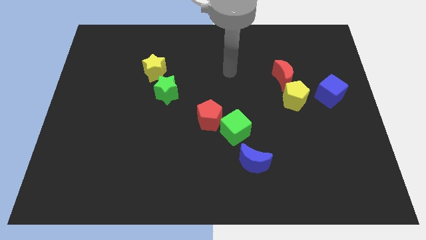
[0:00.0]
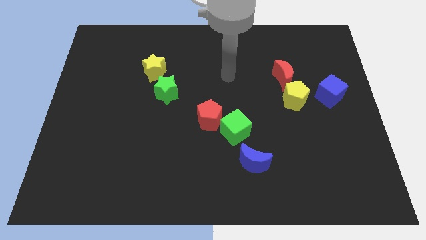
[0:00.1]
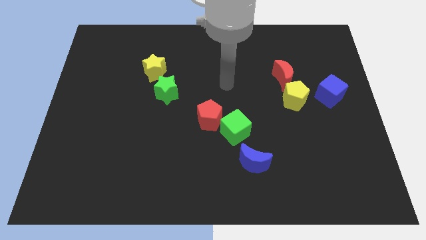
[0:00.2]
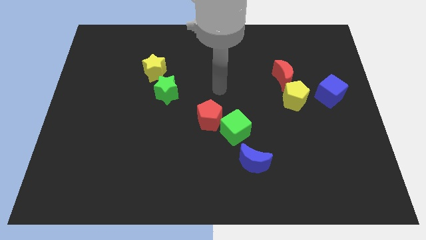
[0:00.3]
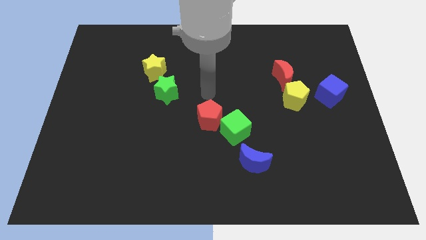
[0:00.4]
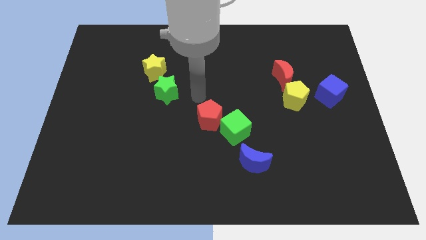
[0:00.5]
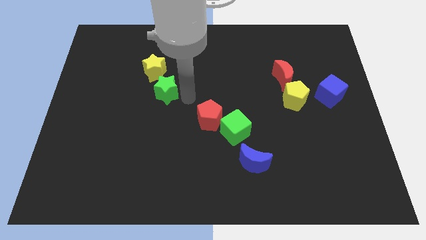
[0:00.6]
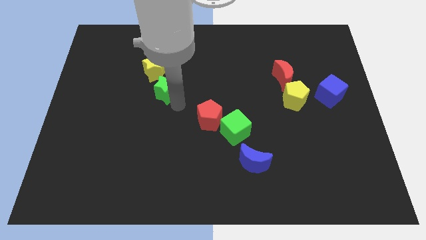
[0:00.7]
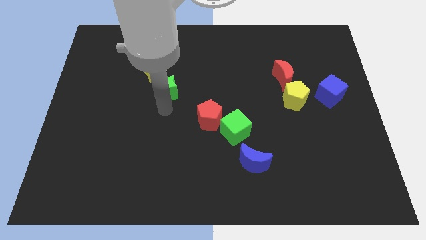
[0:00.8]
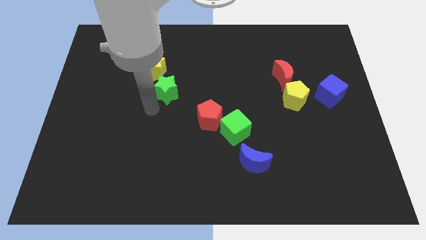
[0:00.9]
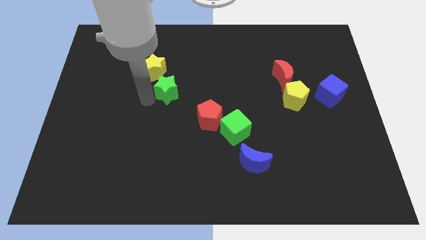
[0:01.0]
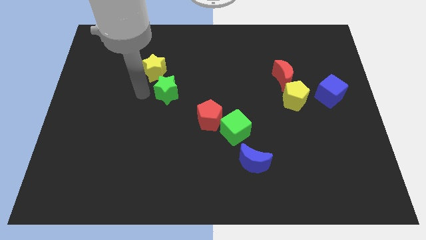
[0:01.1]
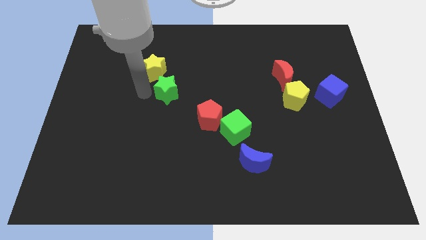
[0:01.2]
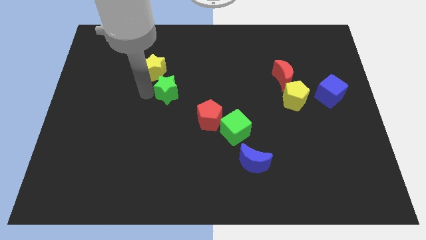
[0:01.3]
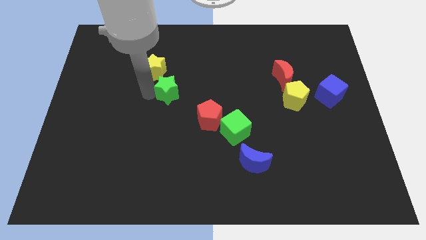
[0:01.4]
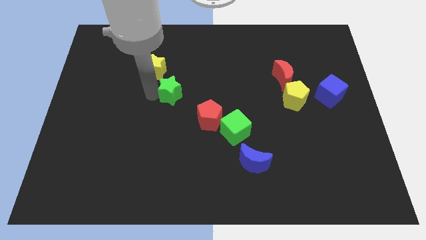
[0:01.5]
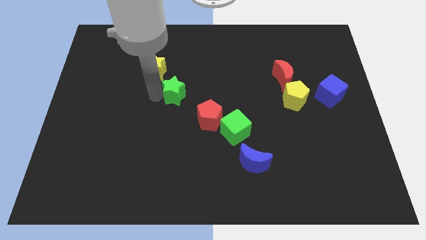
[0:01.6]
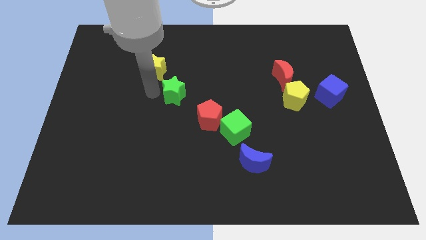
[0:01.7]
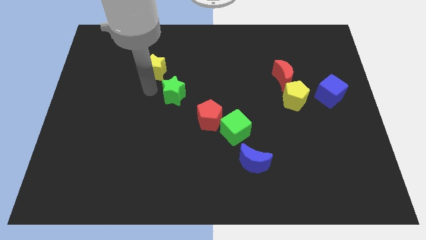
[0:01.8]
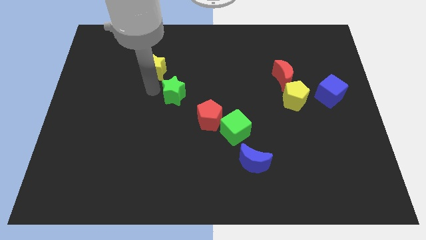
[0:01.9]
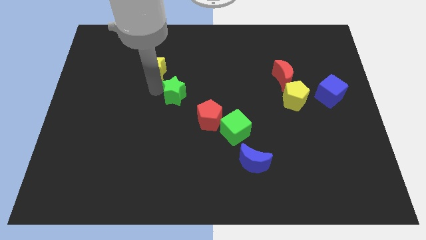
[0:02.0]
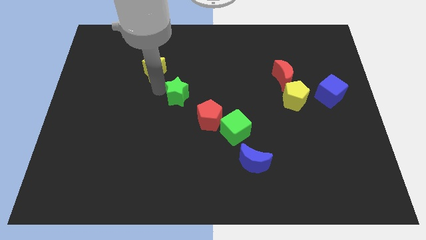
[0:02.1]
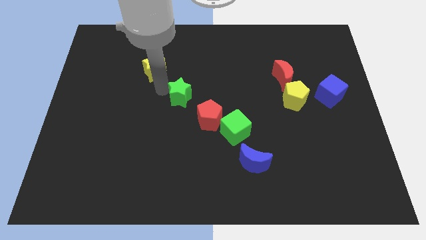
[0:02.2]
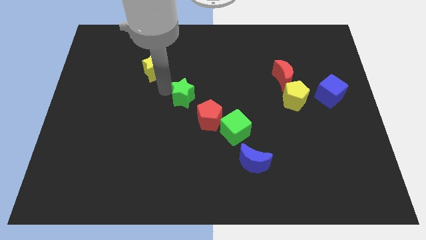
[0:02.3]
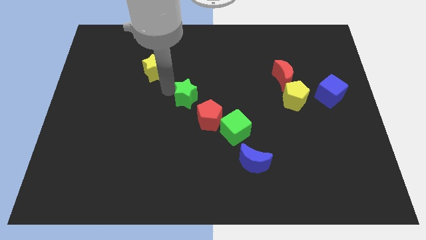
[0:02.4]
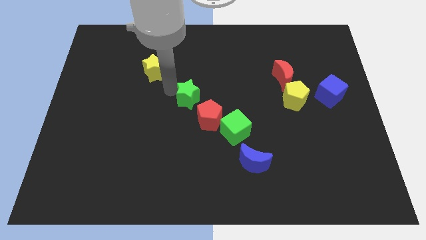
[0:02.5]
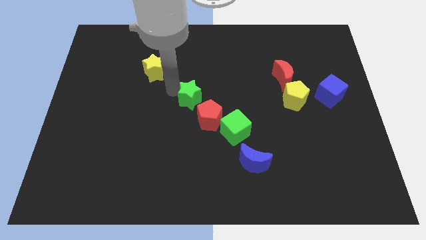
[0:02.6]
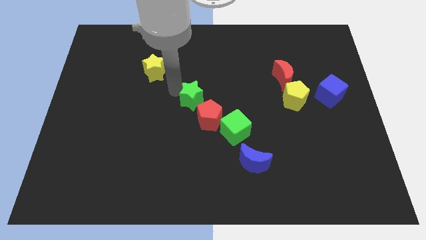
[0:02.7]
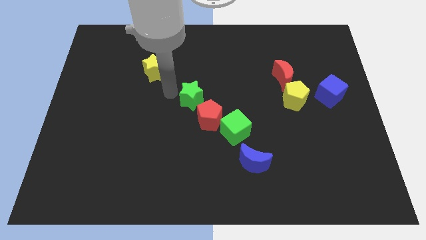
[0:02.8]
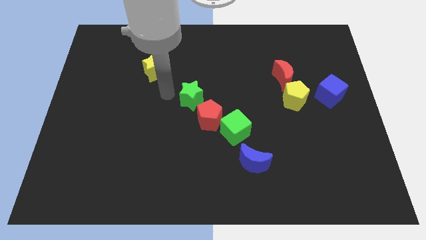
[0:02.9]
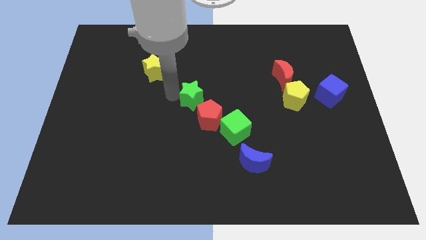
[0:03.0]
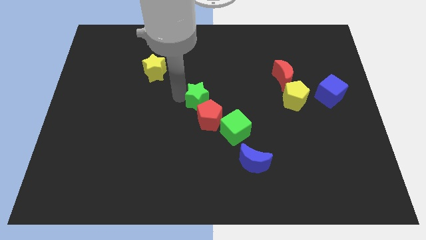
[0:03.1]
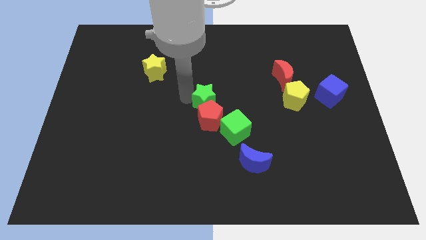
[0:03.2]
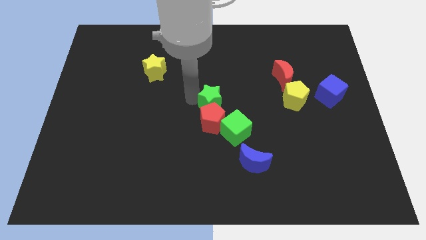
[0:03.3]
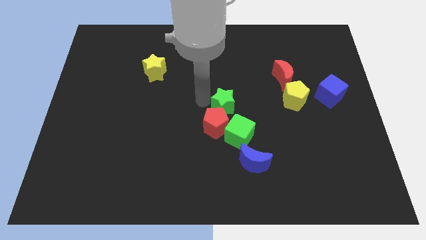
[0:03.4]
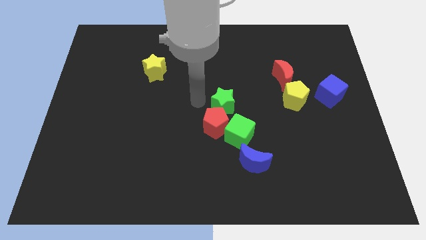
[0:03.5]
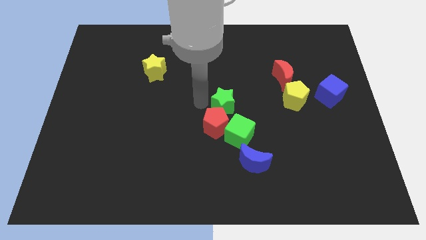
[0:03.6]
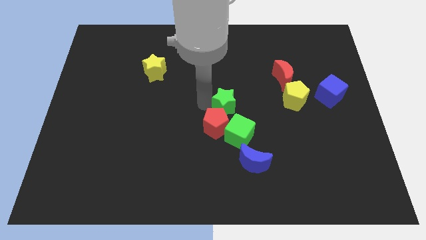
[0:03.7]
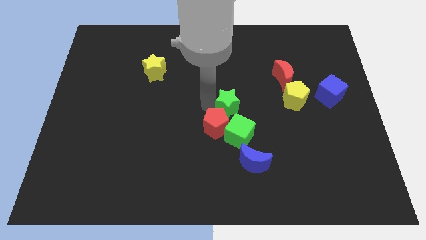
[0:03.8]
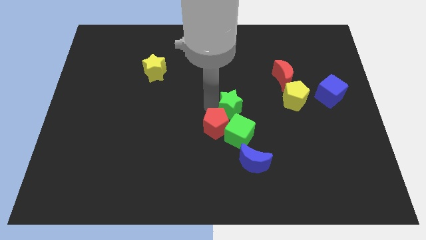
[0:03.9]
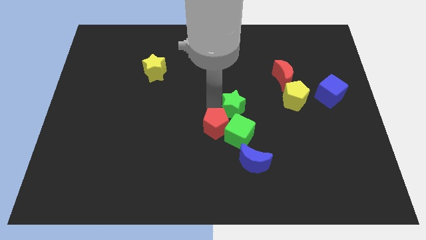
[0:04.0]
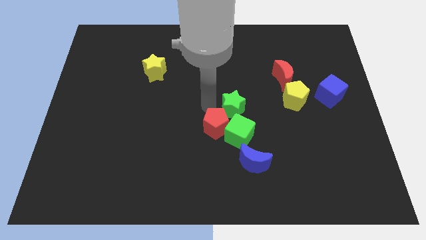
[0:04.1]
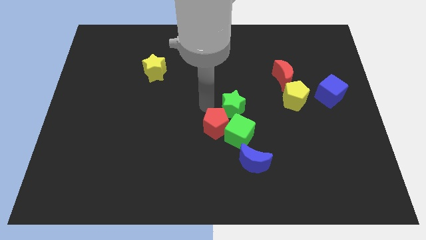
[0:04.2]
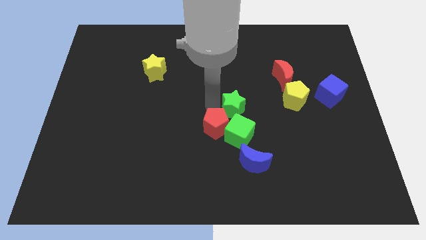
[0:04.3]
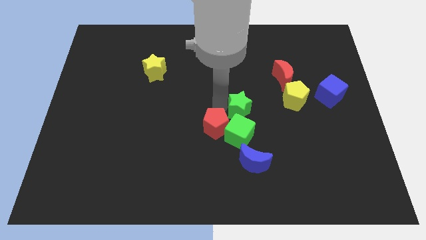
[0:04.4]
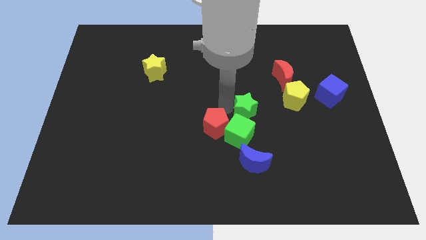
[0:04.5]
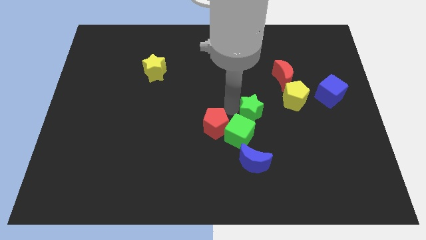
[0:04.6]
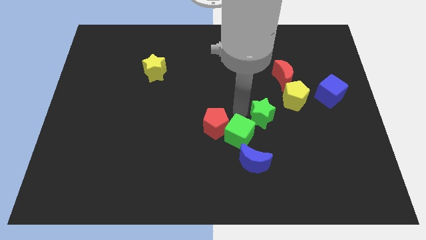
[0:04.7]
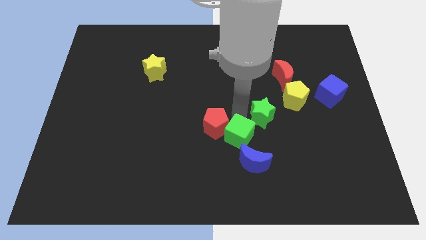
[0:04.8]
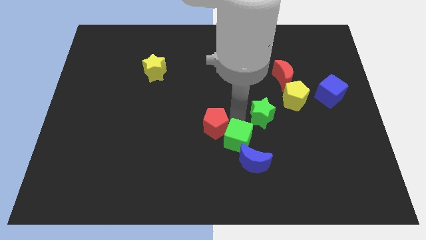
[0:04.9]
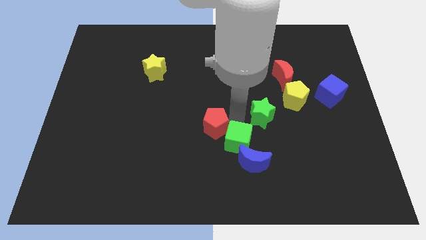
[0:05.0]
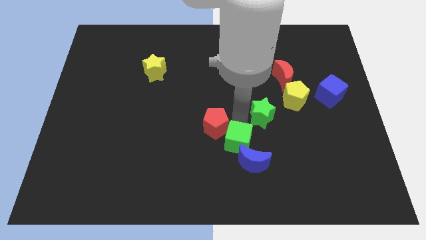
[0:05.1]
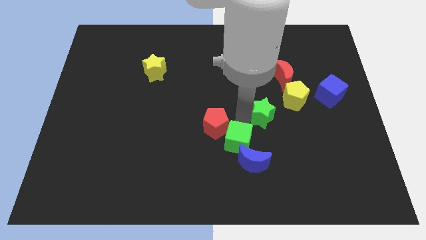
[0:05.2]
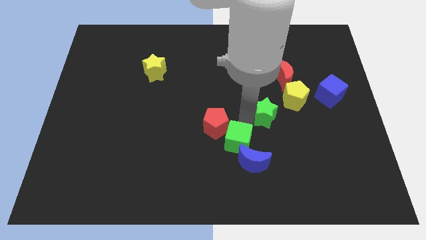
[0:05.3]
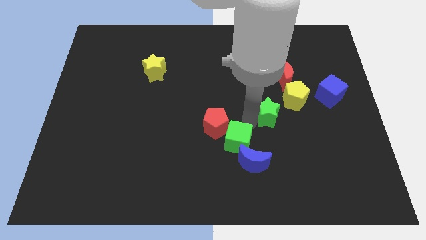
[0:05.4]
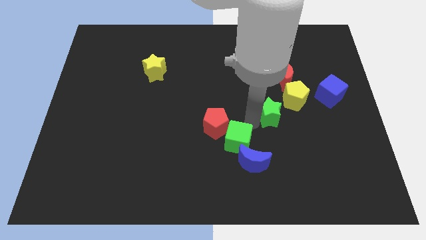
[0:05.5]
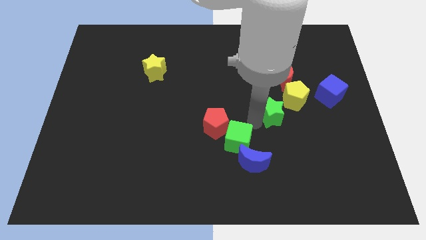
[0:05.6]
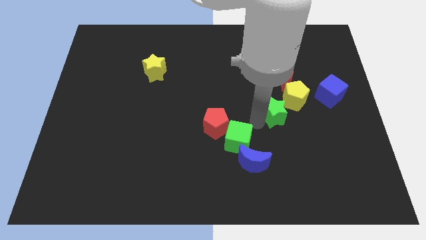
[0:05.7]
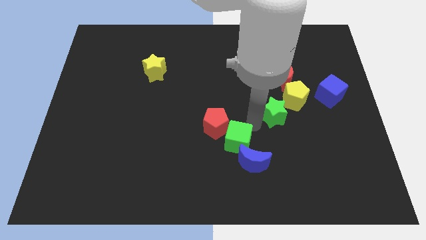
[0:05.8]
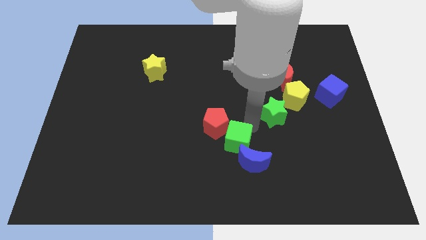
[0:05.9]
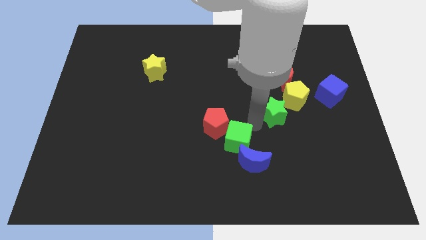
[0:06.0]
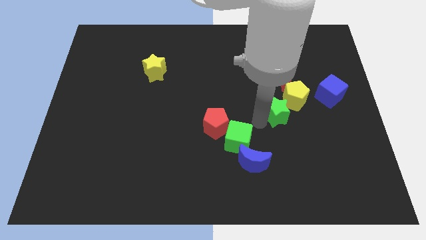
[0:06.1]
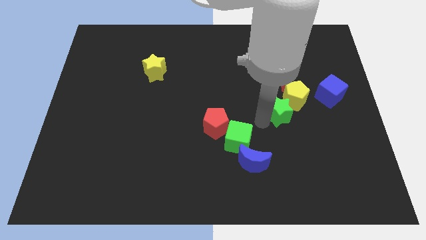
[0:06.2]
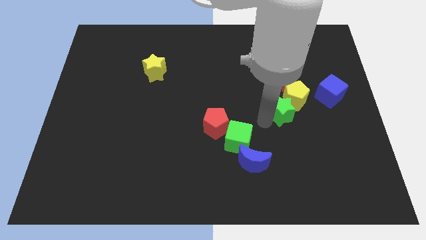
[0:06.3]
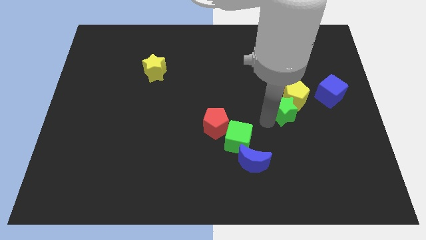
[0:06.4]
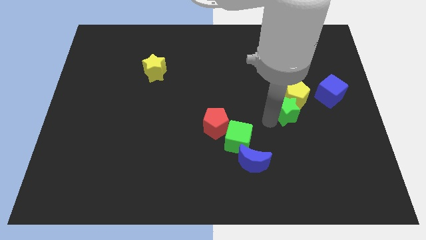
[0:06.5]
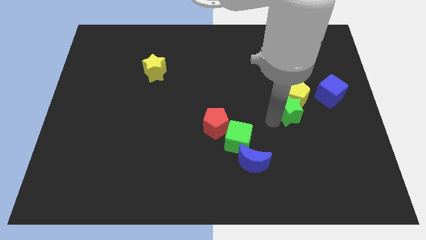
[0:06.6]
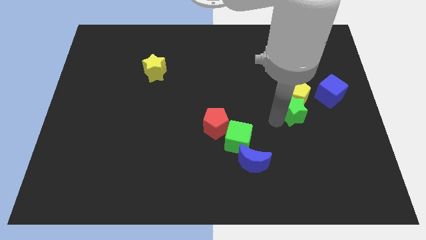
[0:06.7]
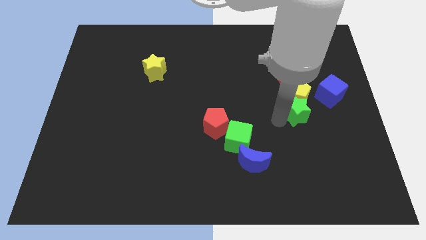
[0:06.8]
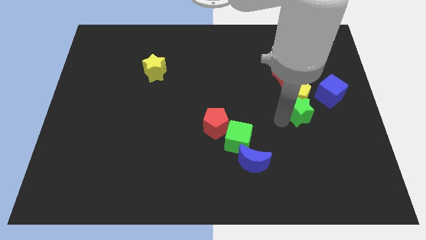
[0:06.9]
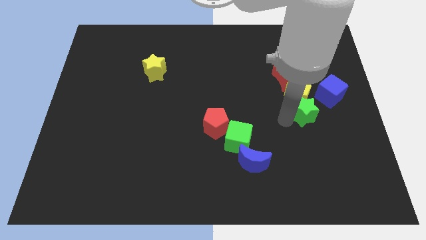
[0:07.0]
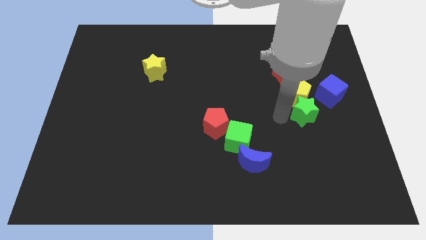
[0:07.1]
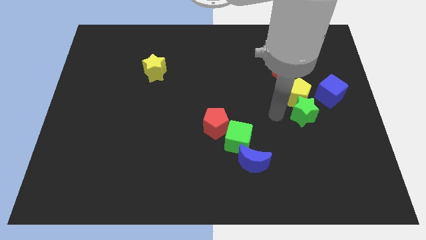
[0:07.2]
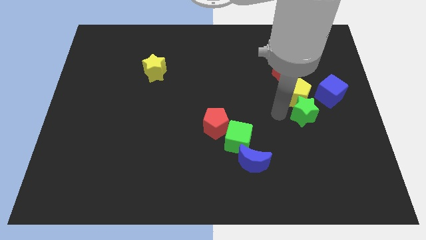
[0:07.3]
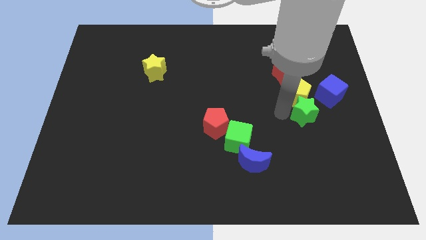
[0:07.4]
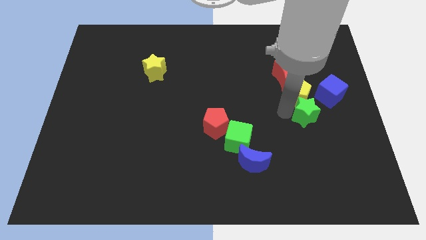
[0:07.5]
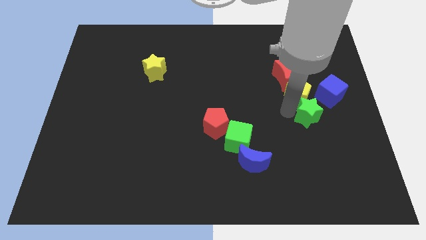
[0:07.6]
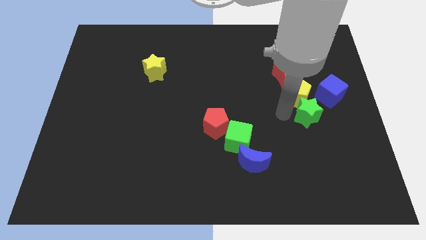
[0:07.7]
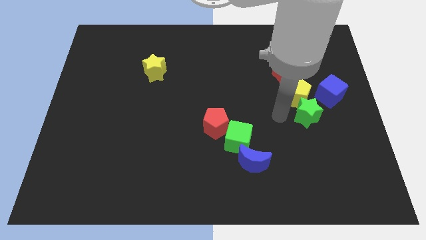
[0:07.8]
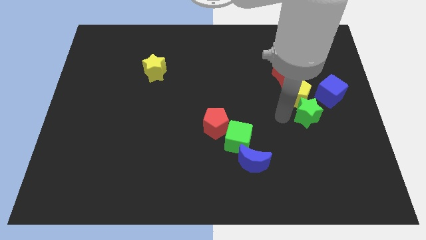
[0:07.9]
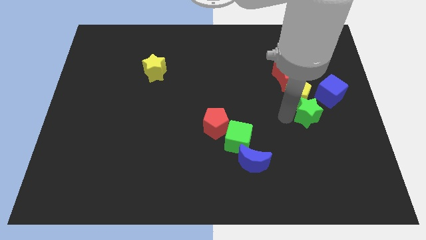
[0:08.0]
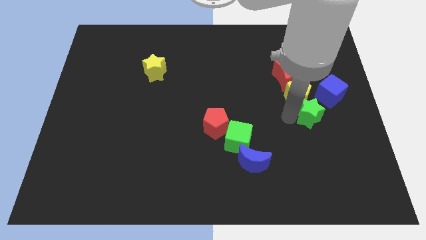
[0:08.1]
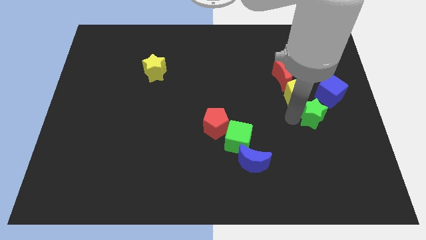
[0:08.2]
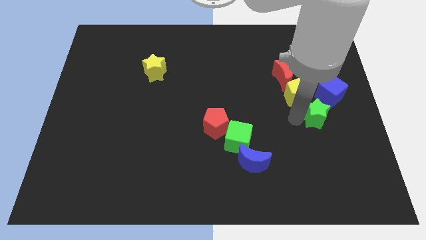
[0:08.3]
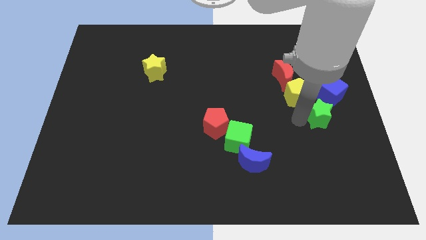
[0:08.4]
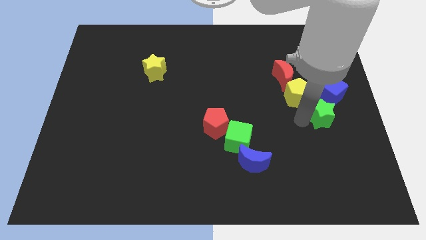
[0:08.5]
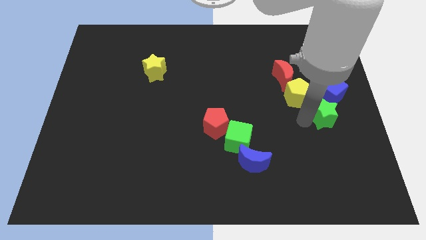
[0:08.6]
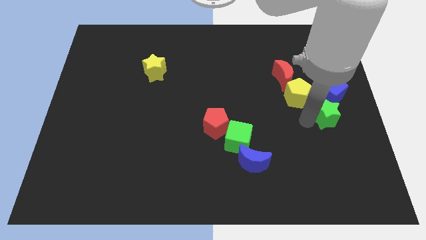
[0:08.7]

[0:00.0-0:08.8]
put the green star to the right side
